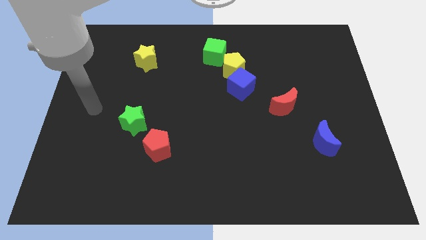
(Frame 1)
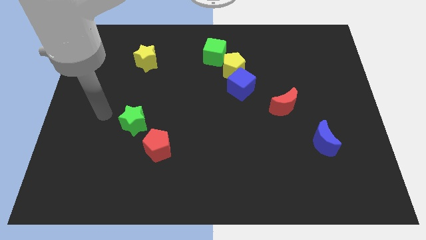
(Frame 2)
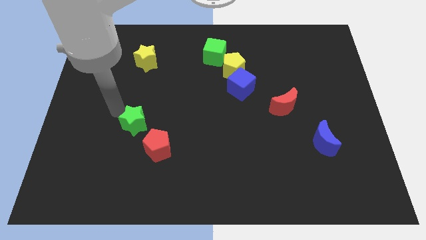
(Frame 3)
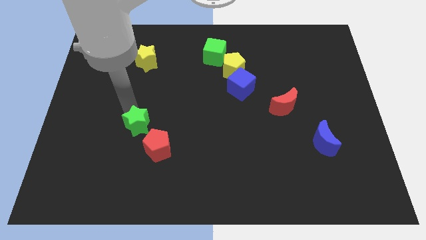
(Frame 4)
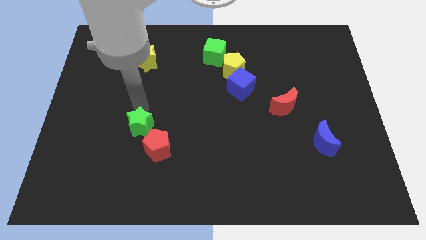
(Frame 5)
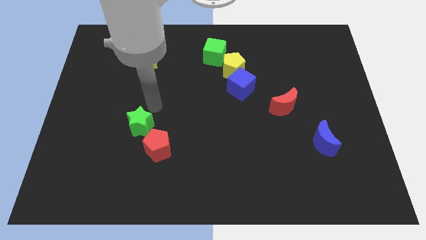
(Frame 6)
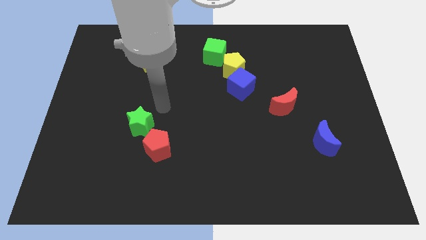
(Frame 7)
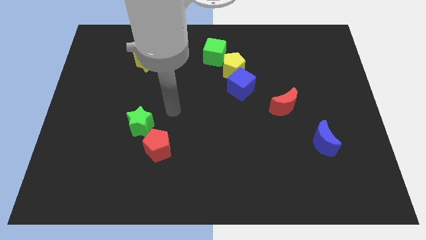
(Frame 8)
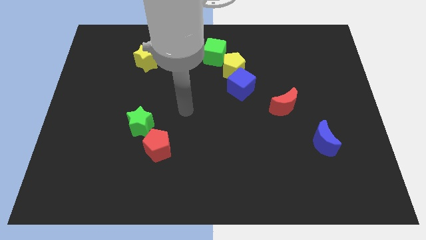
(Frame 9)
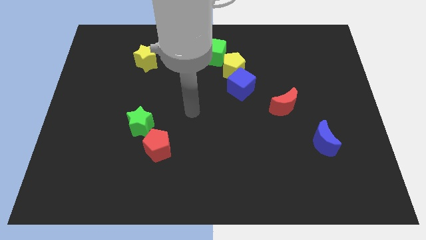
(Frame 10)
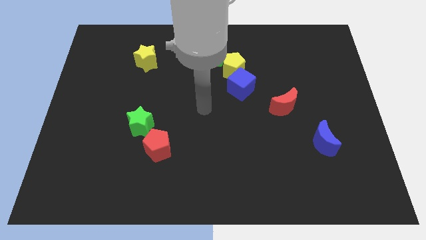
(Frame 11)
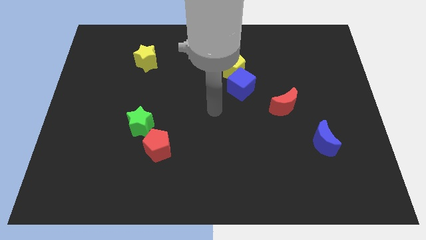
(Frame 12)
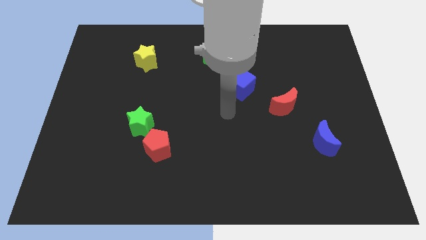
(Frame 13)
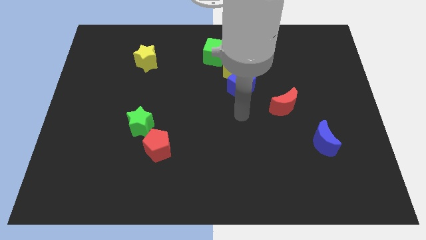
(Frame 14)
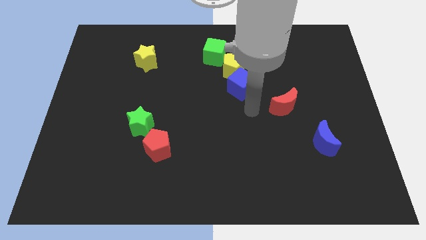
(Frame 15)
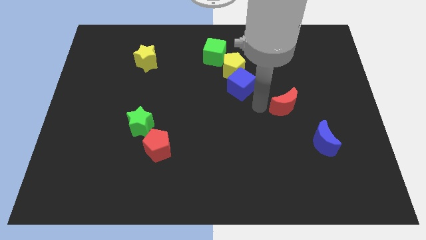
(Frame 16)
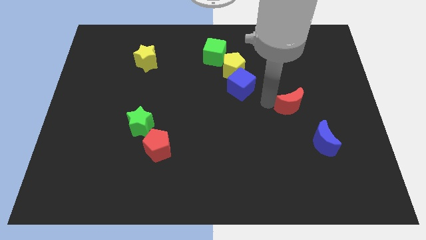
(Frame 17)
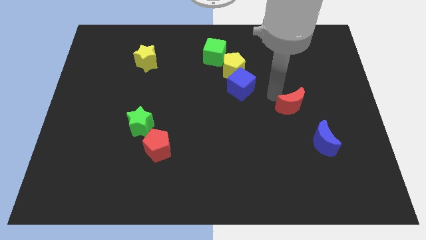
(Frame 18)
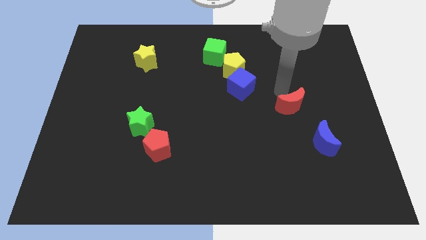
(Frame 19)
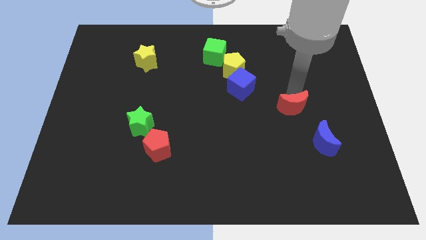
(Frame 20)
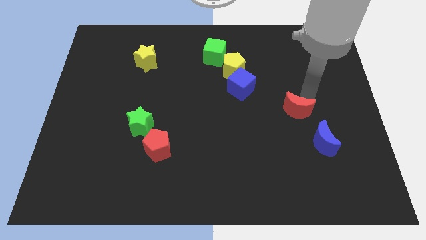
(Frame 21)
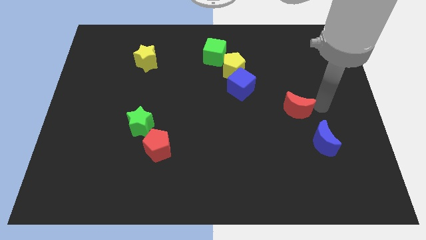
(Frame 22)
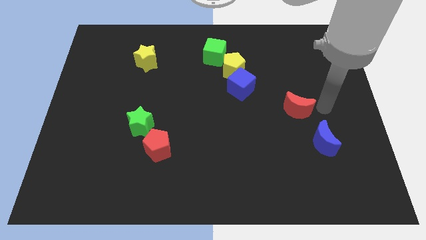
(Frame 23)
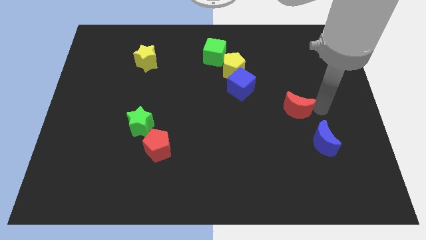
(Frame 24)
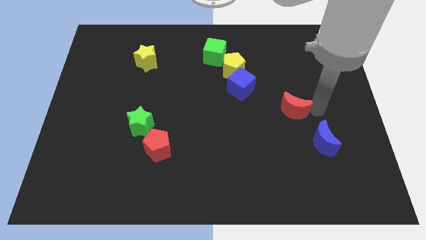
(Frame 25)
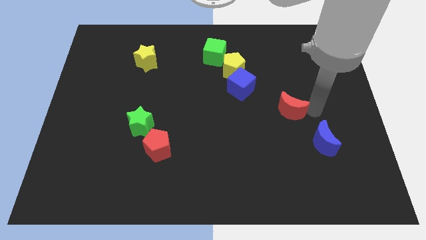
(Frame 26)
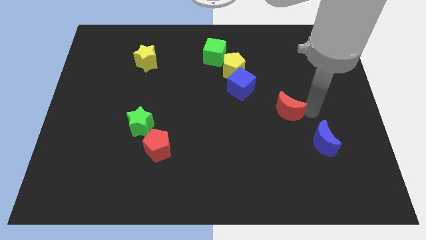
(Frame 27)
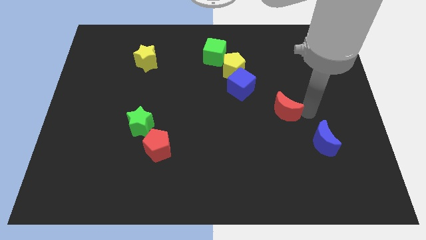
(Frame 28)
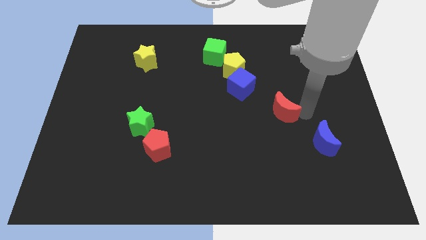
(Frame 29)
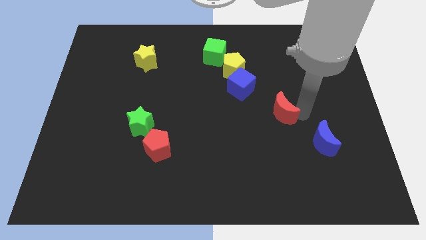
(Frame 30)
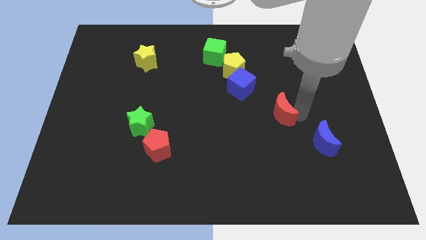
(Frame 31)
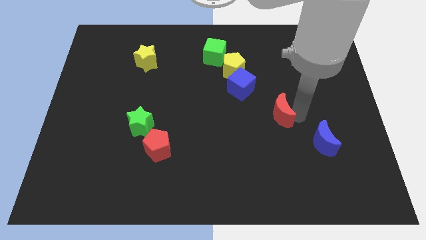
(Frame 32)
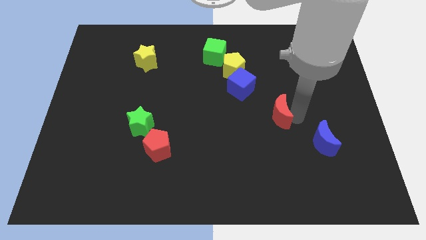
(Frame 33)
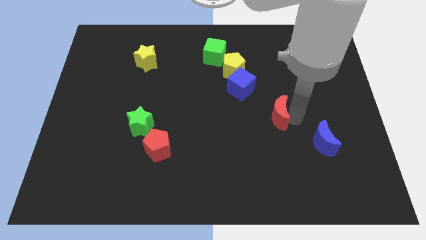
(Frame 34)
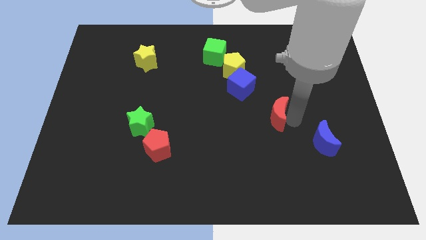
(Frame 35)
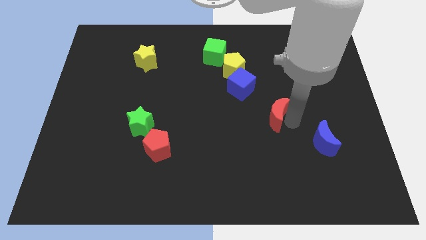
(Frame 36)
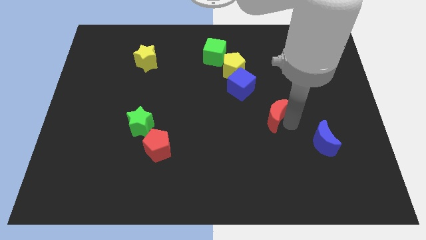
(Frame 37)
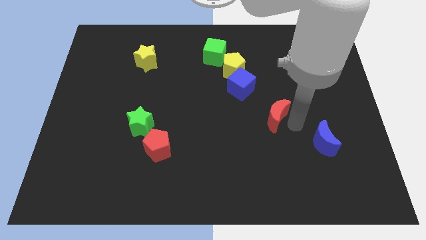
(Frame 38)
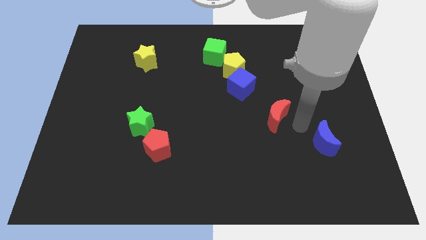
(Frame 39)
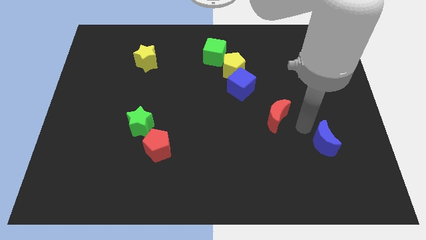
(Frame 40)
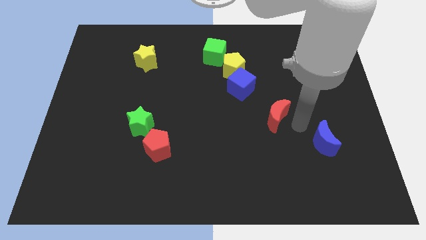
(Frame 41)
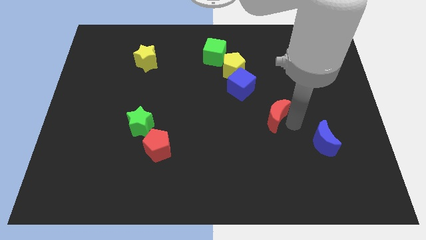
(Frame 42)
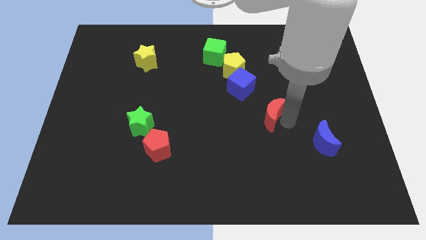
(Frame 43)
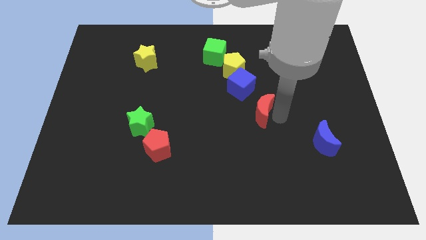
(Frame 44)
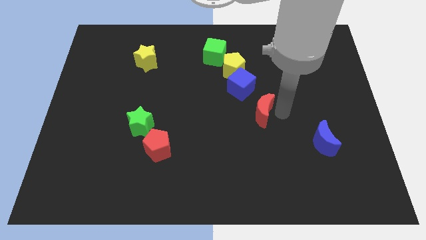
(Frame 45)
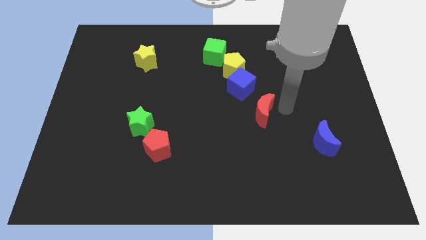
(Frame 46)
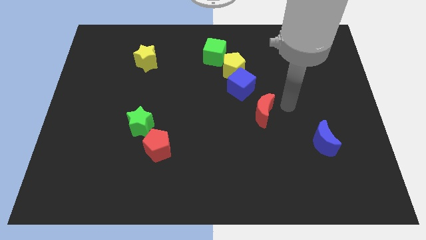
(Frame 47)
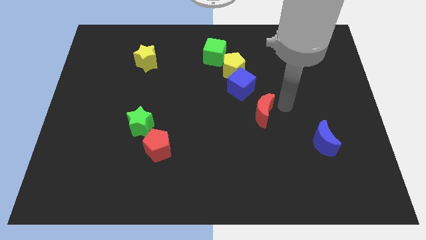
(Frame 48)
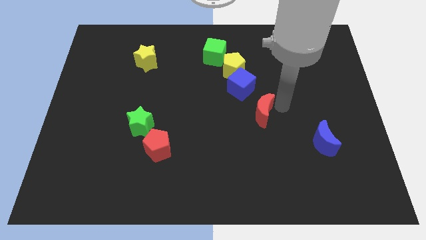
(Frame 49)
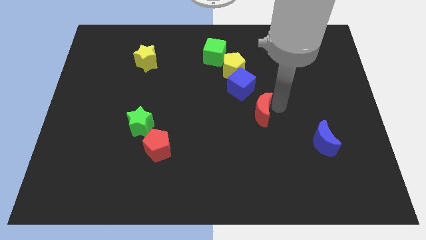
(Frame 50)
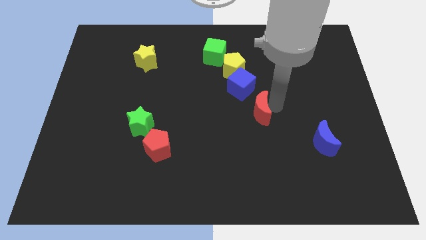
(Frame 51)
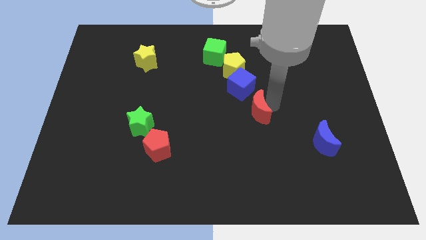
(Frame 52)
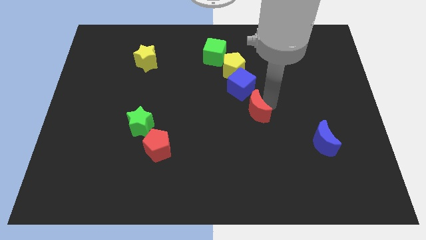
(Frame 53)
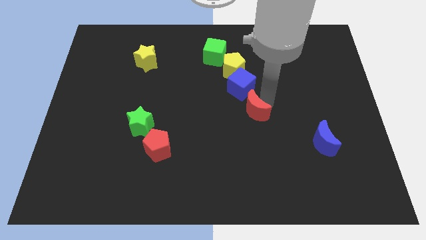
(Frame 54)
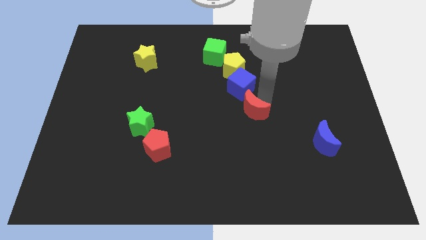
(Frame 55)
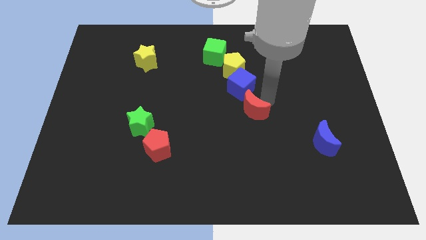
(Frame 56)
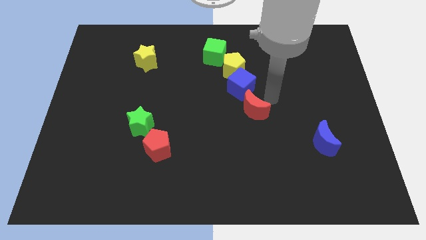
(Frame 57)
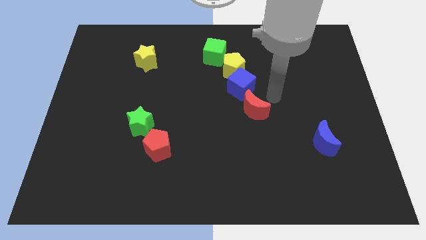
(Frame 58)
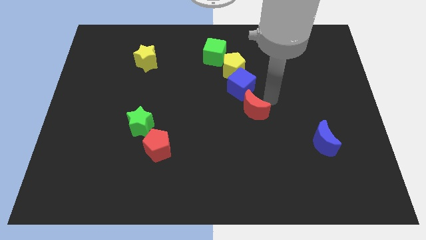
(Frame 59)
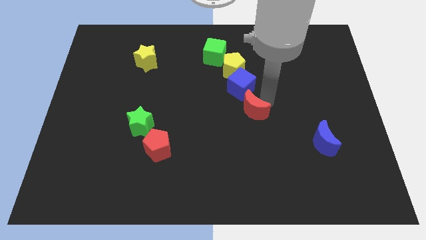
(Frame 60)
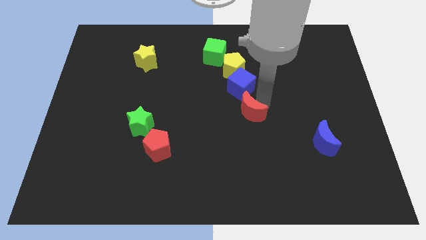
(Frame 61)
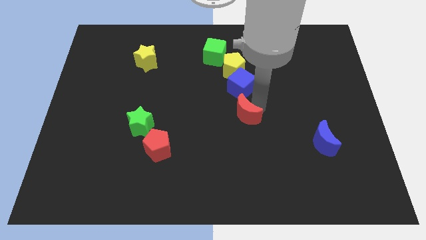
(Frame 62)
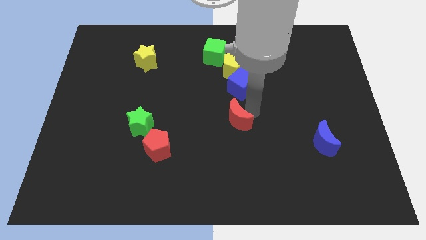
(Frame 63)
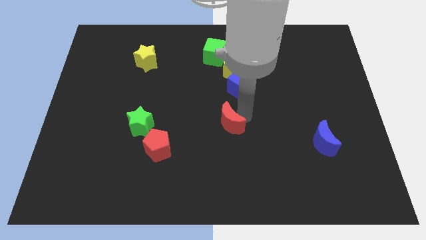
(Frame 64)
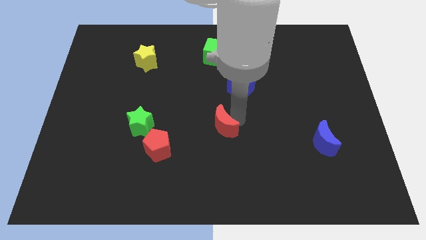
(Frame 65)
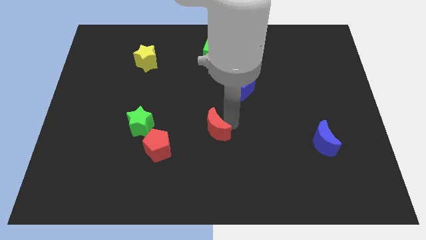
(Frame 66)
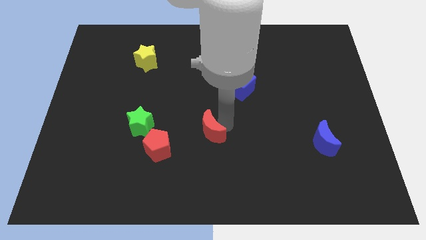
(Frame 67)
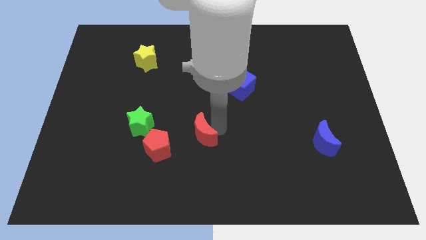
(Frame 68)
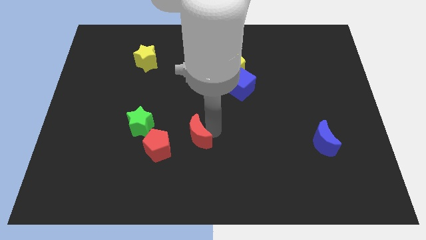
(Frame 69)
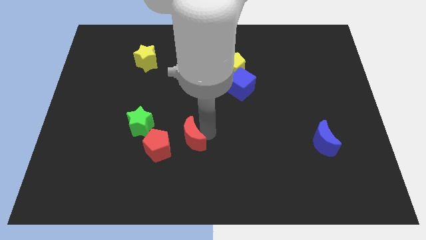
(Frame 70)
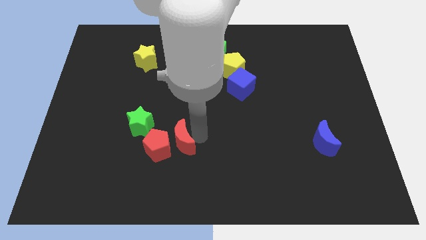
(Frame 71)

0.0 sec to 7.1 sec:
put the red moon towards the red pentagon
